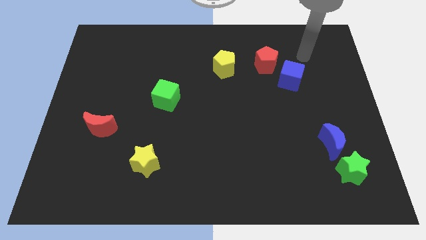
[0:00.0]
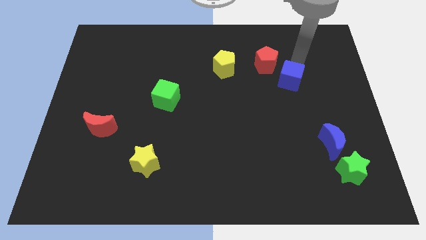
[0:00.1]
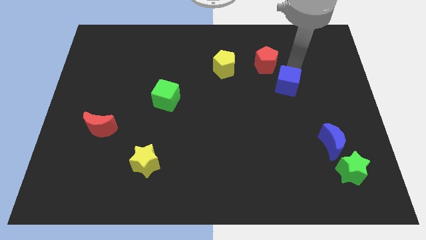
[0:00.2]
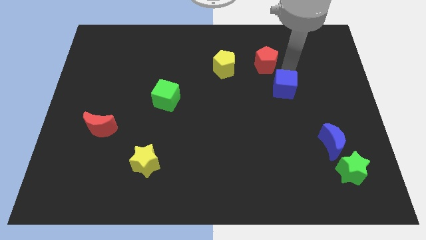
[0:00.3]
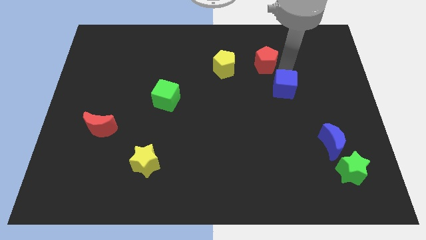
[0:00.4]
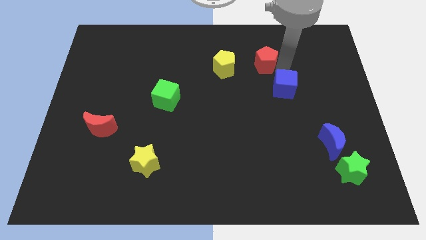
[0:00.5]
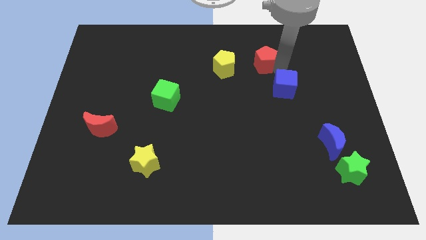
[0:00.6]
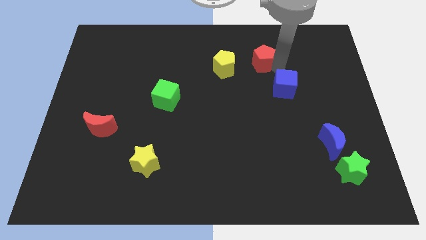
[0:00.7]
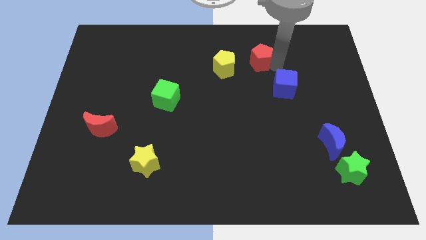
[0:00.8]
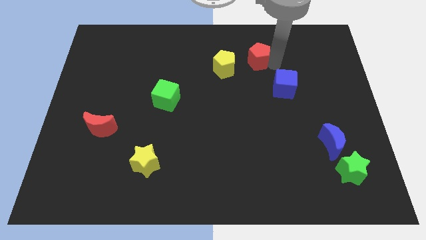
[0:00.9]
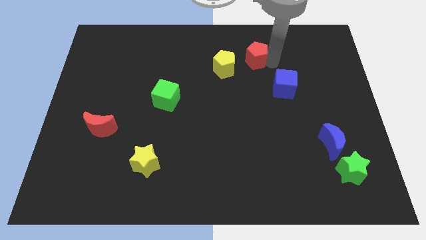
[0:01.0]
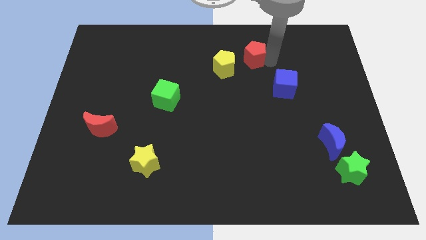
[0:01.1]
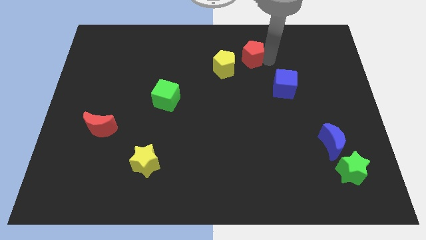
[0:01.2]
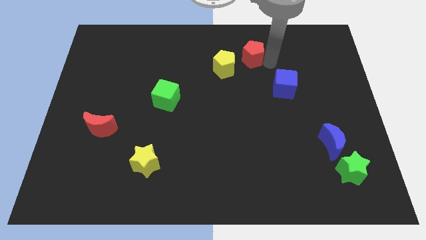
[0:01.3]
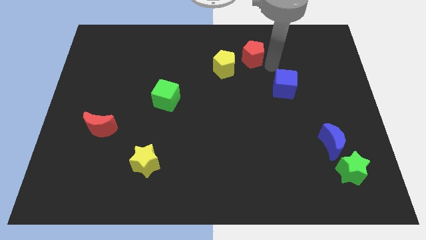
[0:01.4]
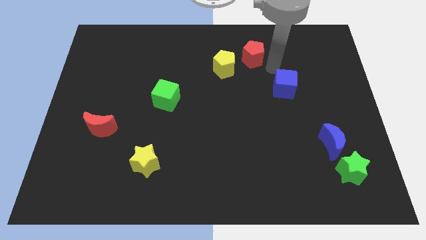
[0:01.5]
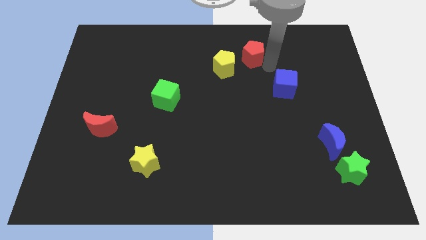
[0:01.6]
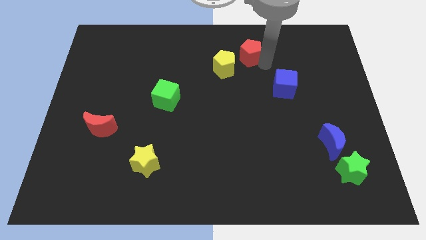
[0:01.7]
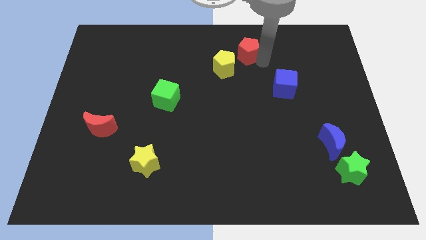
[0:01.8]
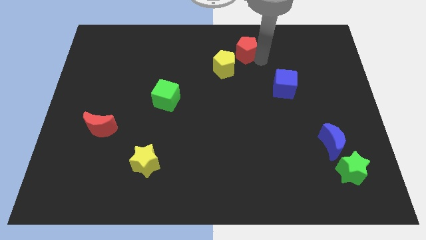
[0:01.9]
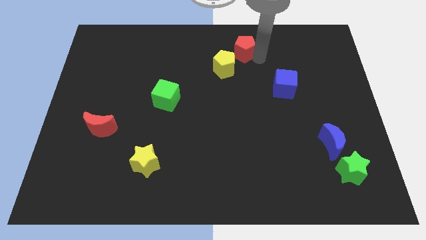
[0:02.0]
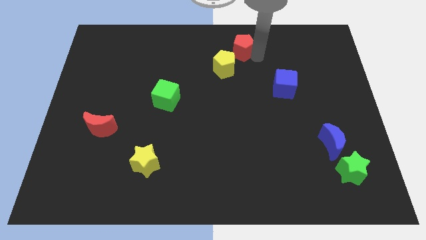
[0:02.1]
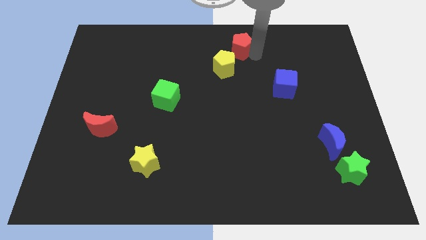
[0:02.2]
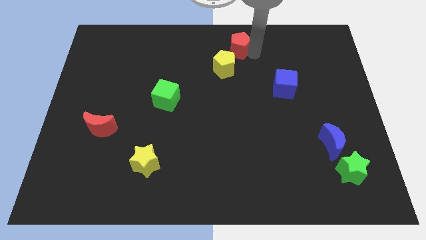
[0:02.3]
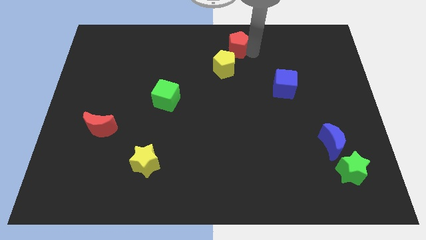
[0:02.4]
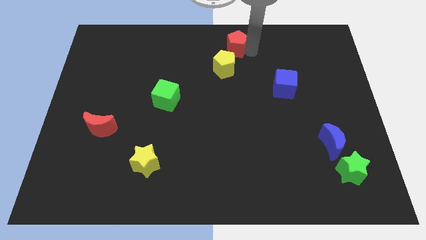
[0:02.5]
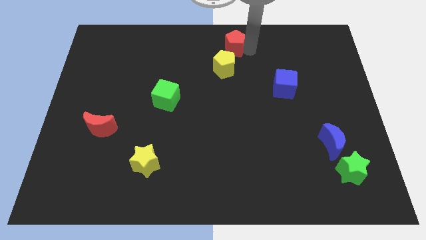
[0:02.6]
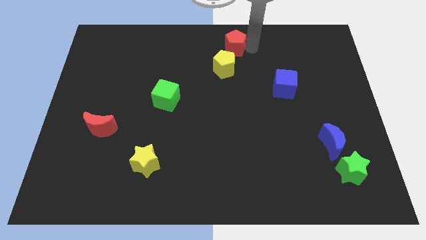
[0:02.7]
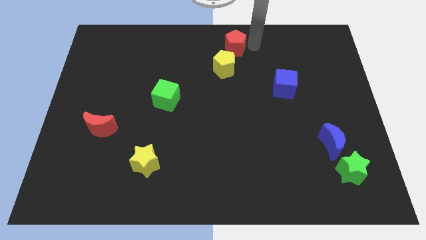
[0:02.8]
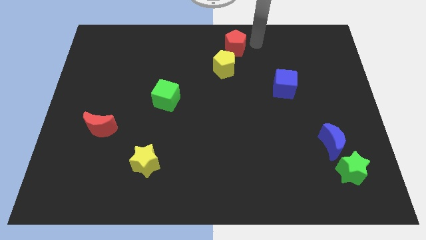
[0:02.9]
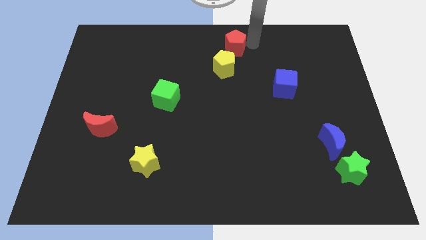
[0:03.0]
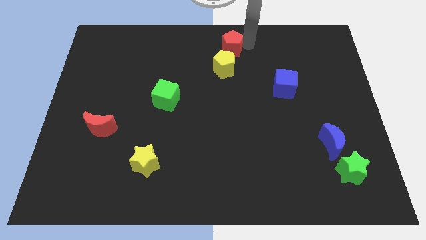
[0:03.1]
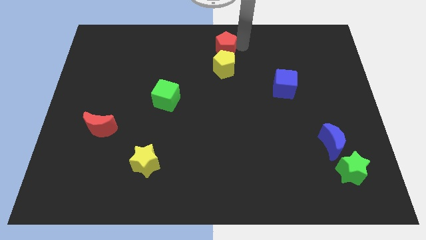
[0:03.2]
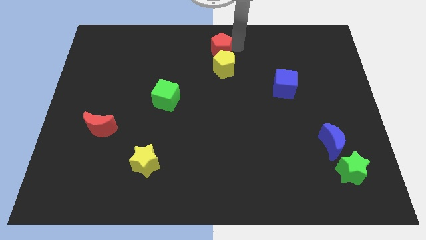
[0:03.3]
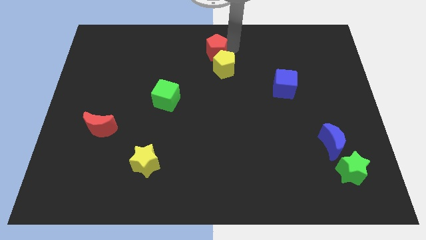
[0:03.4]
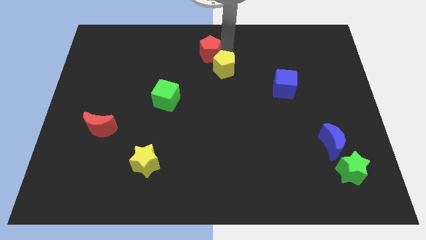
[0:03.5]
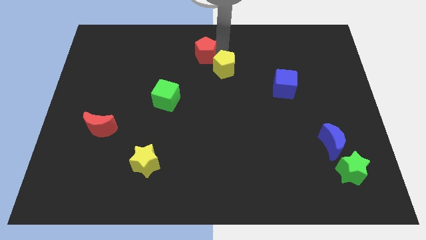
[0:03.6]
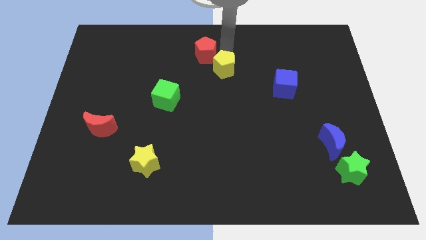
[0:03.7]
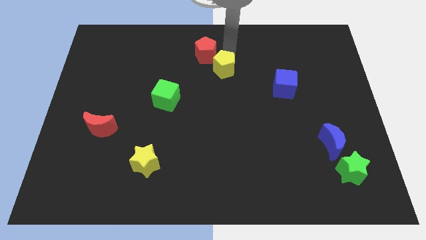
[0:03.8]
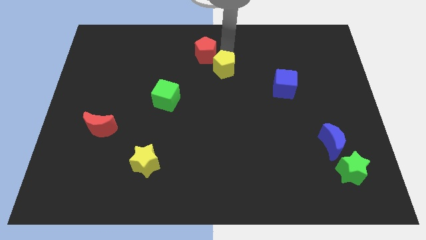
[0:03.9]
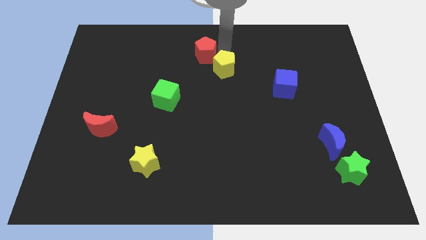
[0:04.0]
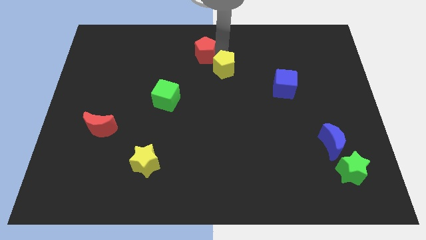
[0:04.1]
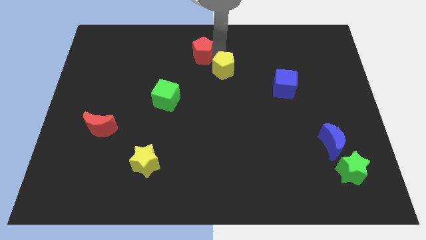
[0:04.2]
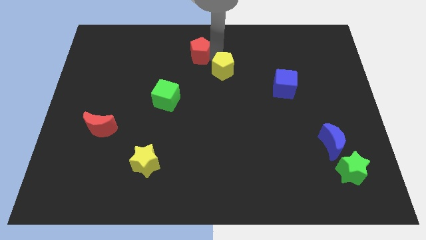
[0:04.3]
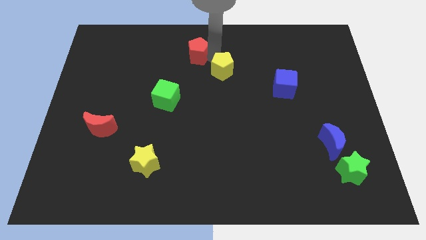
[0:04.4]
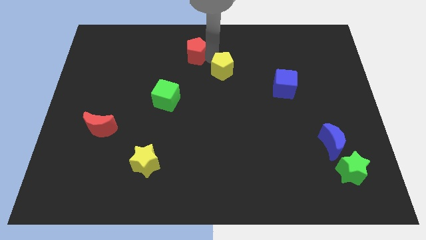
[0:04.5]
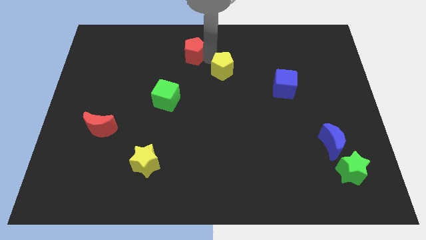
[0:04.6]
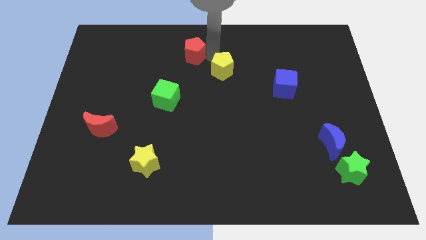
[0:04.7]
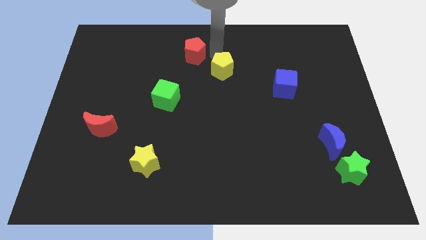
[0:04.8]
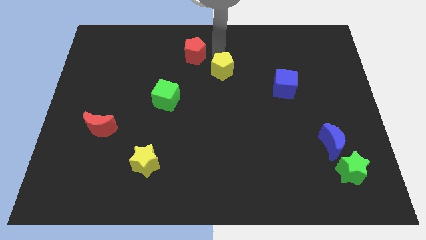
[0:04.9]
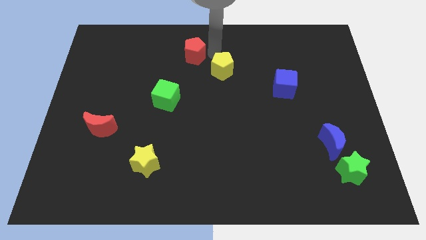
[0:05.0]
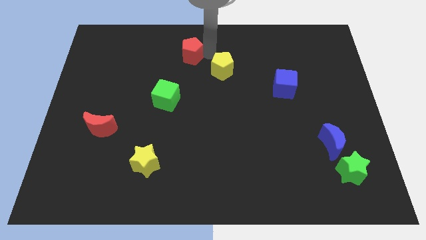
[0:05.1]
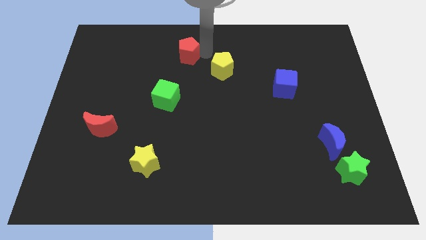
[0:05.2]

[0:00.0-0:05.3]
move the red pentagon left

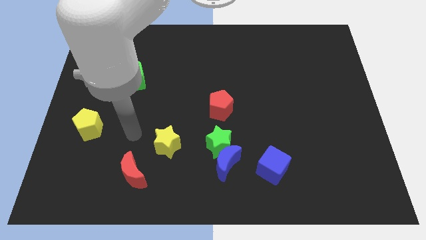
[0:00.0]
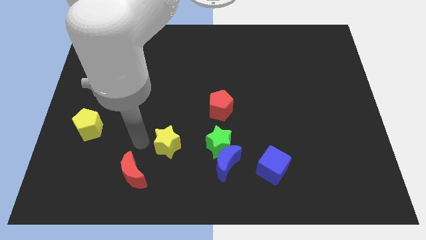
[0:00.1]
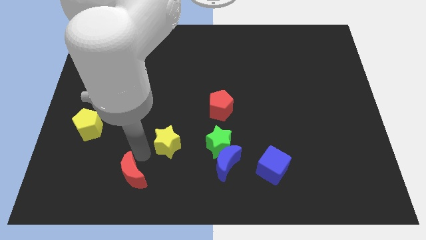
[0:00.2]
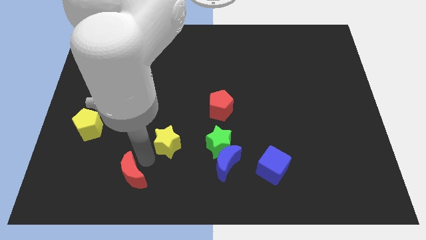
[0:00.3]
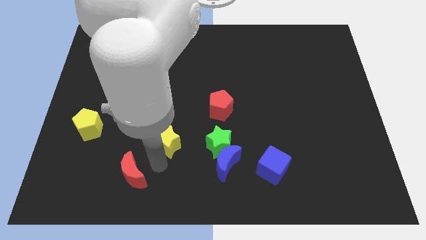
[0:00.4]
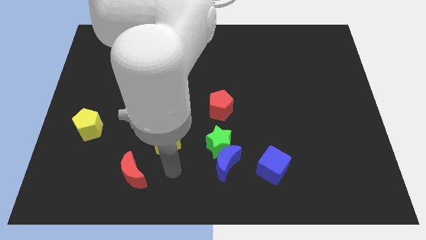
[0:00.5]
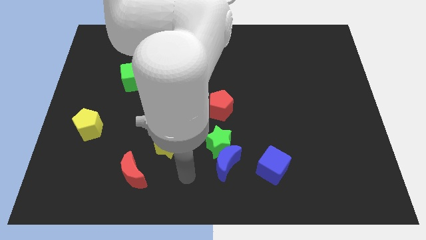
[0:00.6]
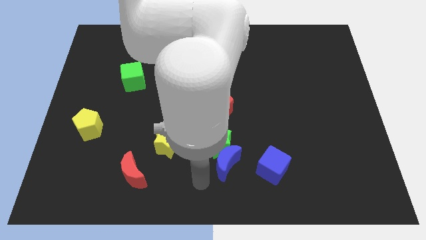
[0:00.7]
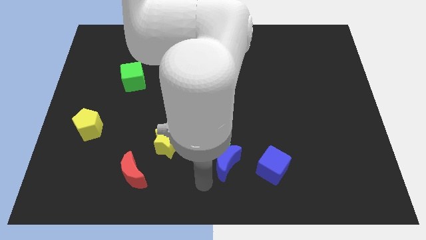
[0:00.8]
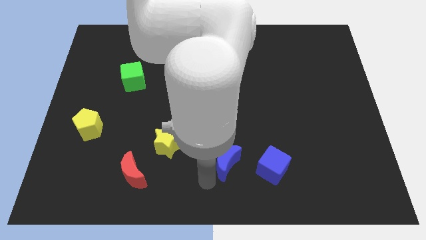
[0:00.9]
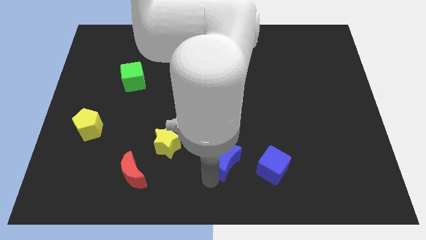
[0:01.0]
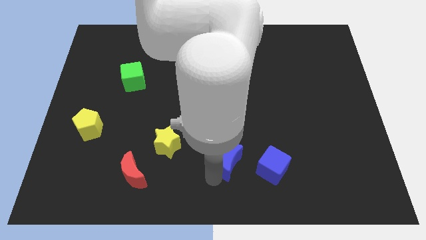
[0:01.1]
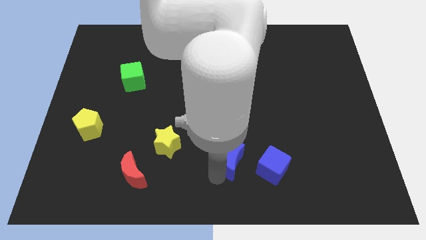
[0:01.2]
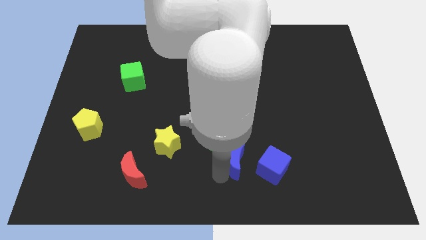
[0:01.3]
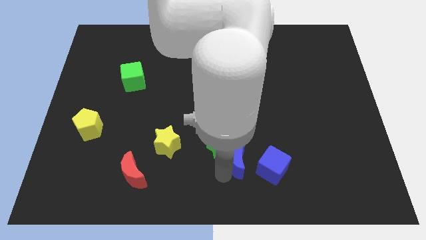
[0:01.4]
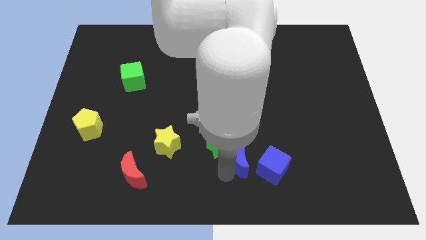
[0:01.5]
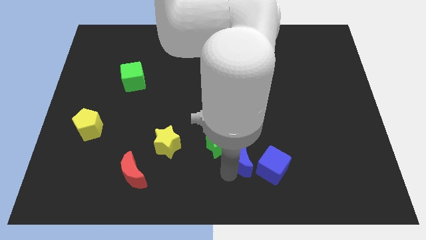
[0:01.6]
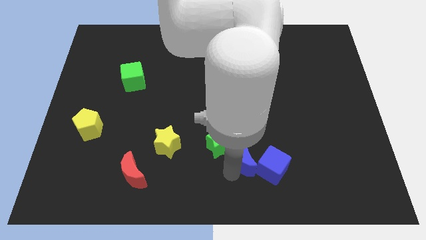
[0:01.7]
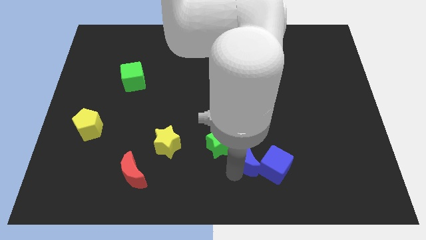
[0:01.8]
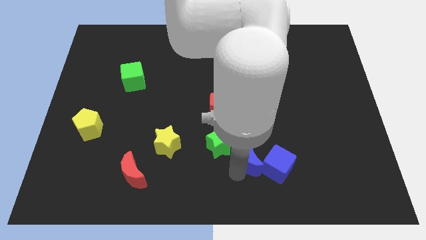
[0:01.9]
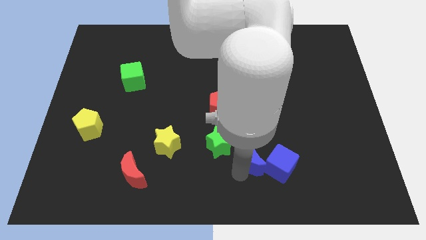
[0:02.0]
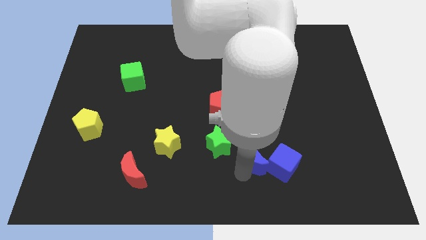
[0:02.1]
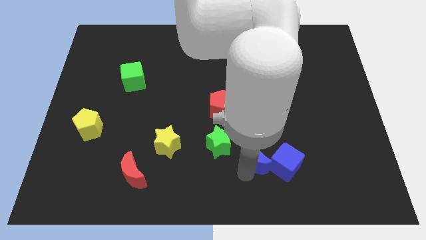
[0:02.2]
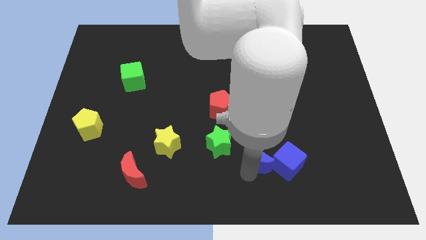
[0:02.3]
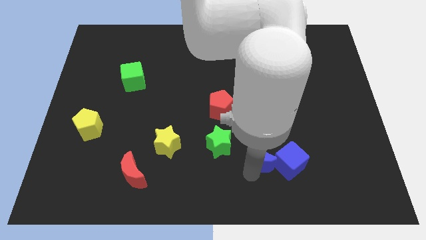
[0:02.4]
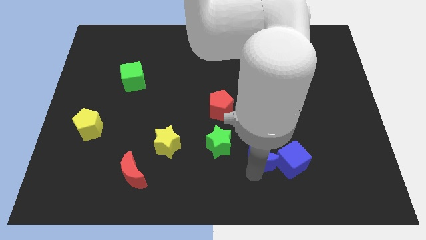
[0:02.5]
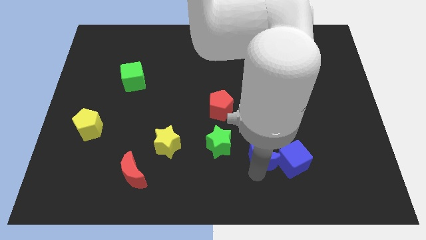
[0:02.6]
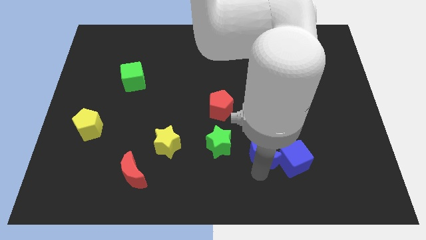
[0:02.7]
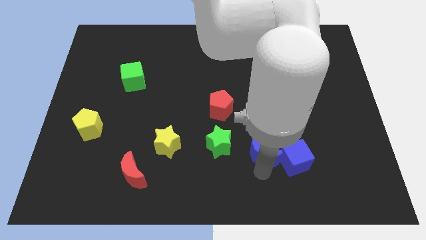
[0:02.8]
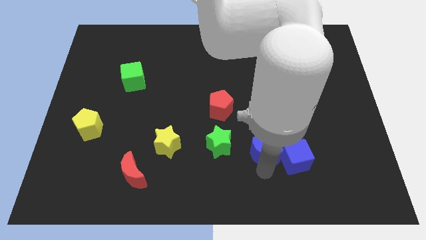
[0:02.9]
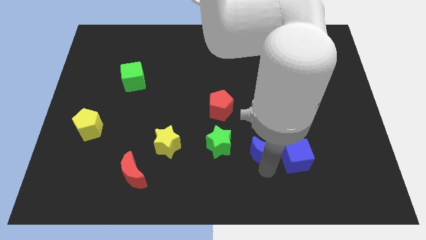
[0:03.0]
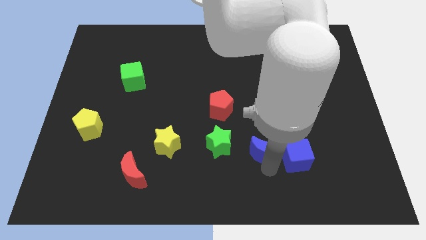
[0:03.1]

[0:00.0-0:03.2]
push the blue moon somewhat up and right
